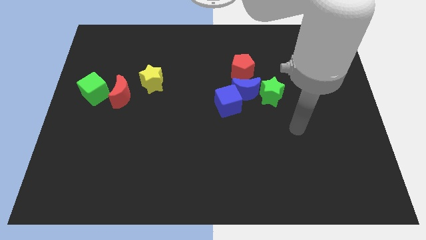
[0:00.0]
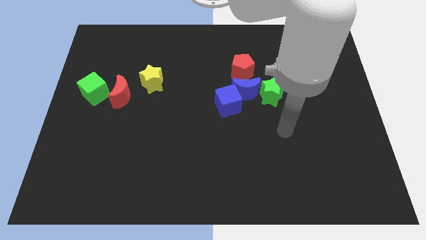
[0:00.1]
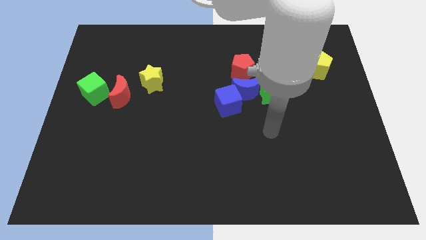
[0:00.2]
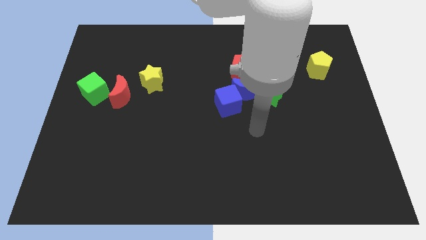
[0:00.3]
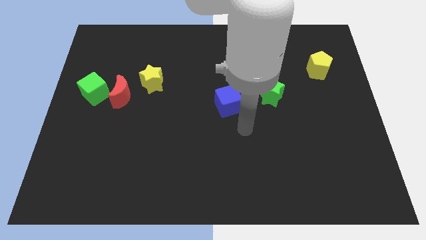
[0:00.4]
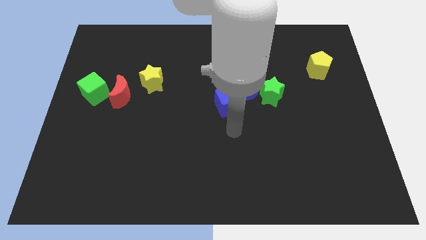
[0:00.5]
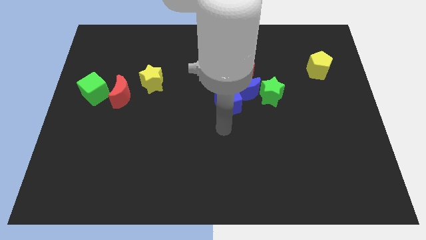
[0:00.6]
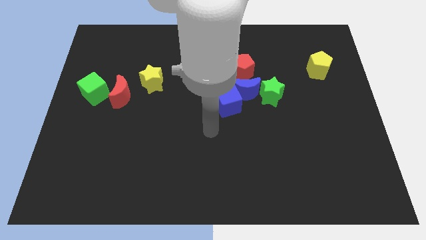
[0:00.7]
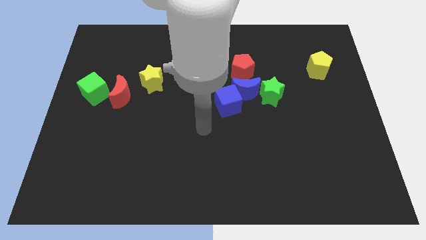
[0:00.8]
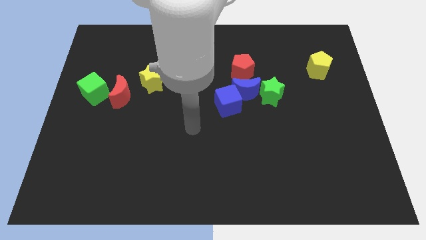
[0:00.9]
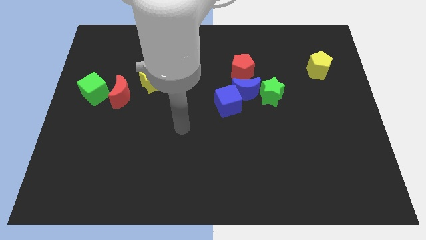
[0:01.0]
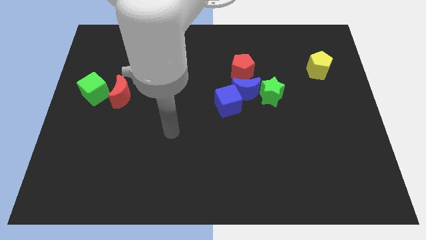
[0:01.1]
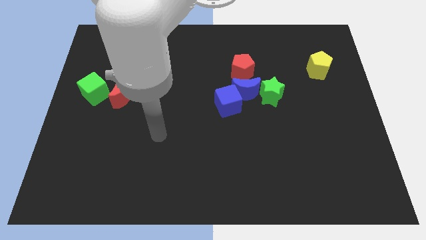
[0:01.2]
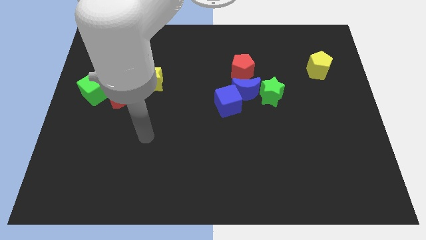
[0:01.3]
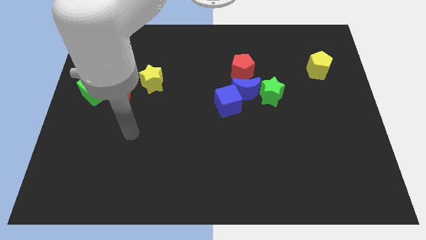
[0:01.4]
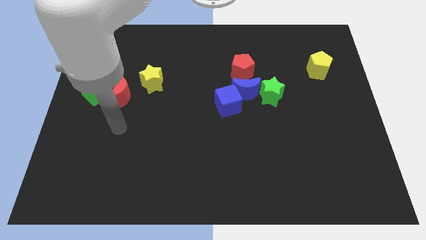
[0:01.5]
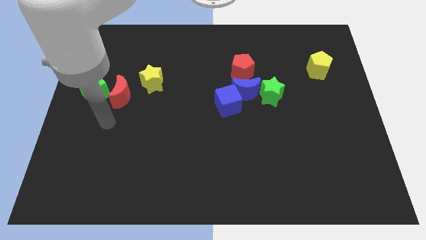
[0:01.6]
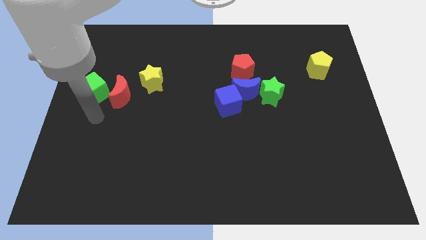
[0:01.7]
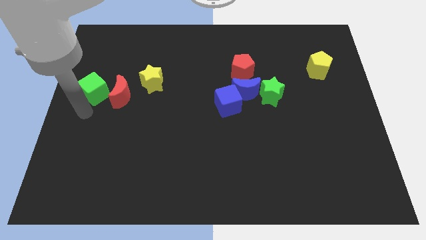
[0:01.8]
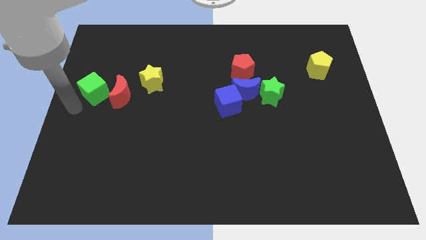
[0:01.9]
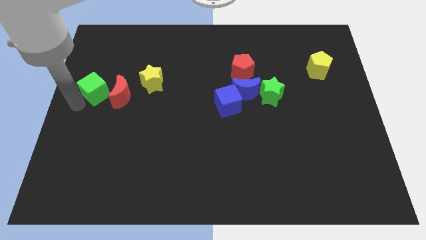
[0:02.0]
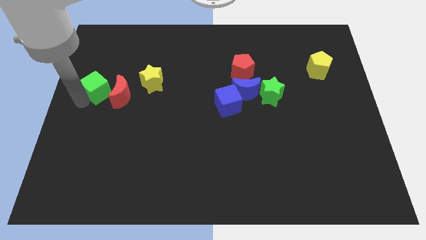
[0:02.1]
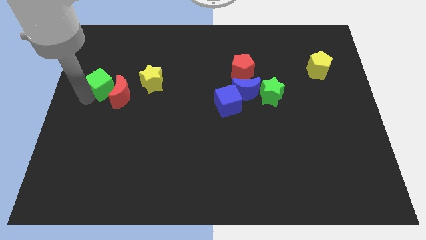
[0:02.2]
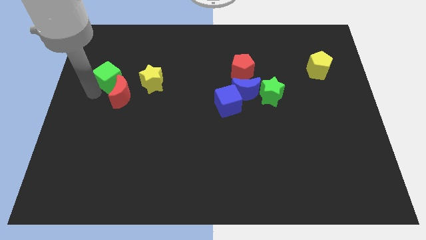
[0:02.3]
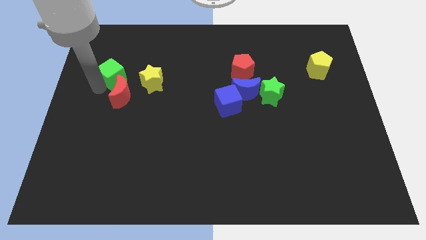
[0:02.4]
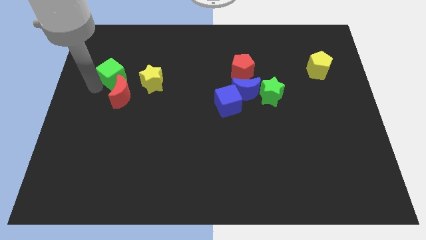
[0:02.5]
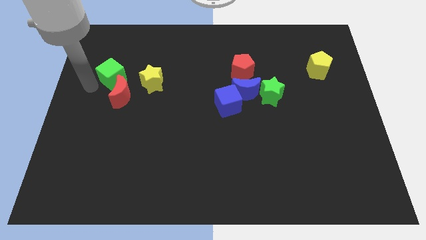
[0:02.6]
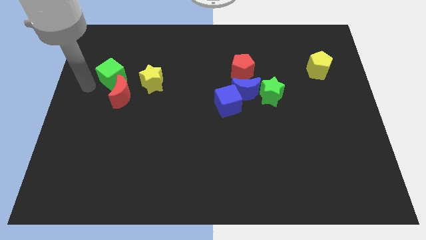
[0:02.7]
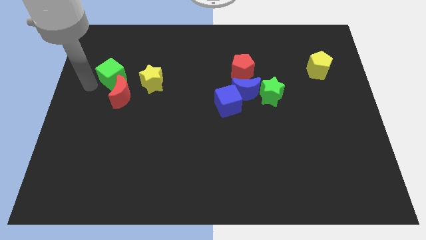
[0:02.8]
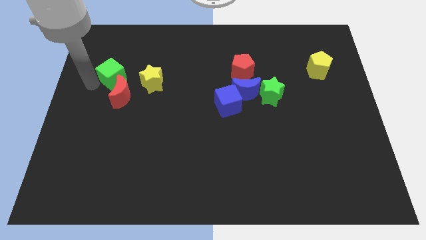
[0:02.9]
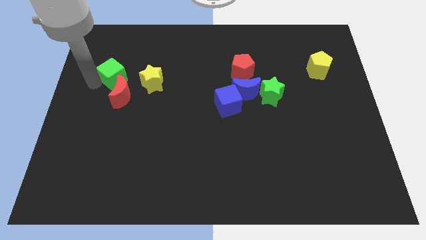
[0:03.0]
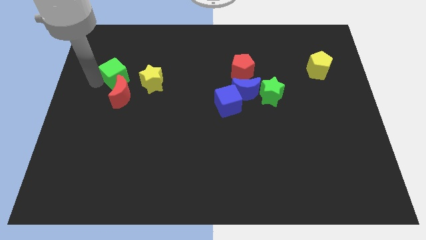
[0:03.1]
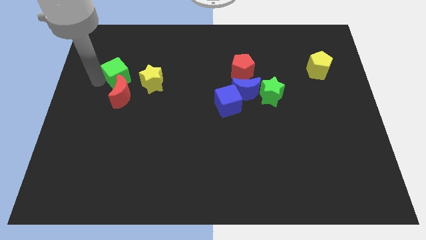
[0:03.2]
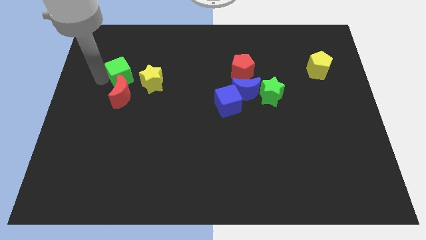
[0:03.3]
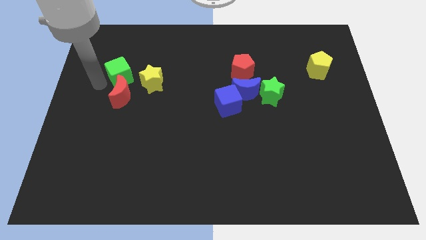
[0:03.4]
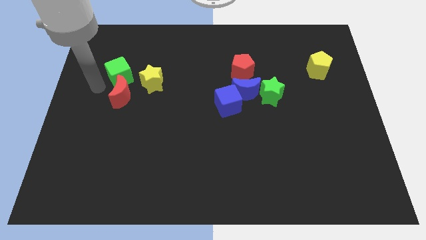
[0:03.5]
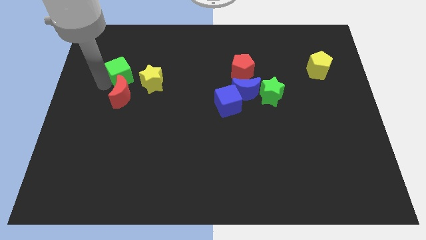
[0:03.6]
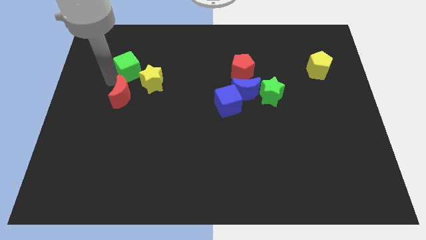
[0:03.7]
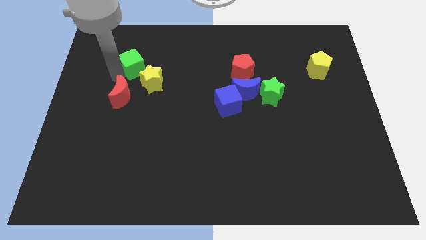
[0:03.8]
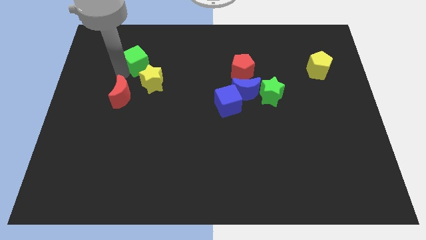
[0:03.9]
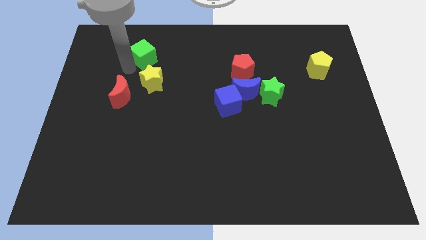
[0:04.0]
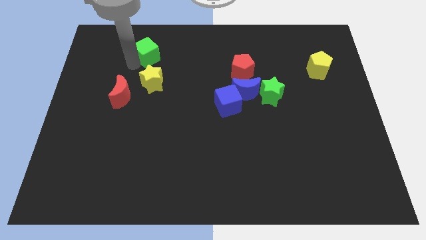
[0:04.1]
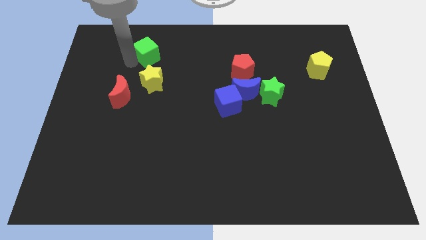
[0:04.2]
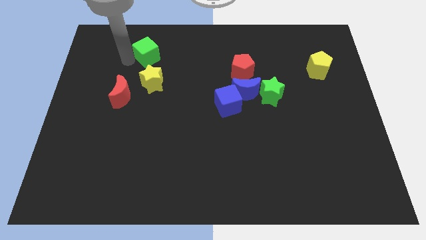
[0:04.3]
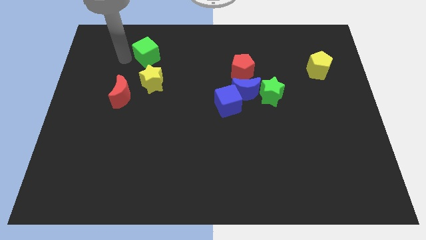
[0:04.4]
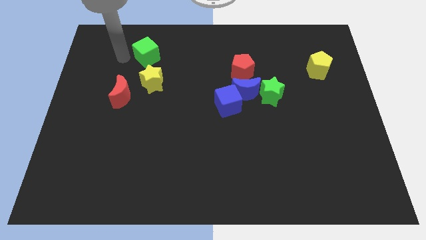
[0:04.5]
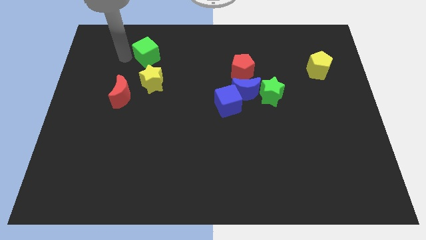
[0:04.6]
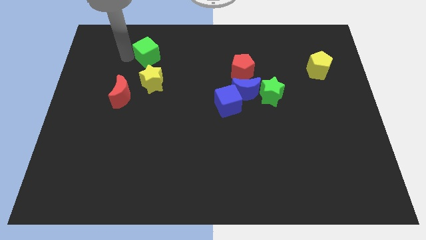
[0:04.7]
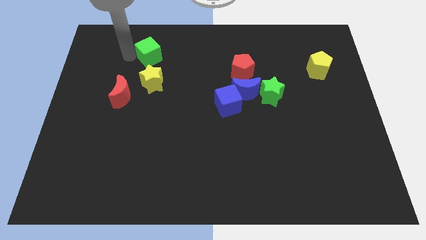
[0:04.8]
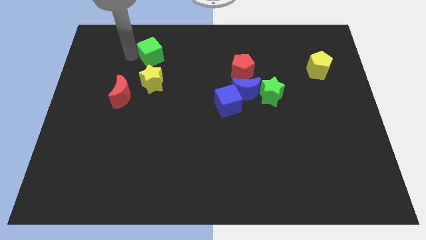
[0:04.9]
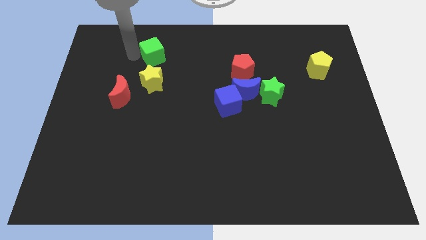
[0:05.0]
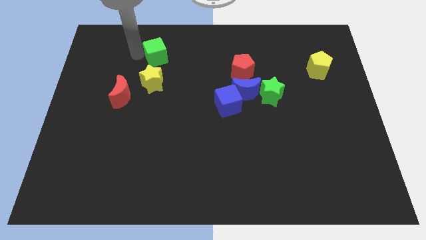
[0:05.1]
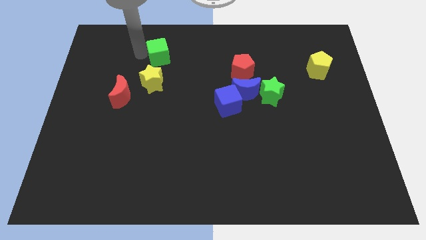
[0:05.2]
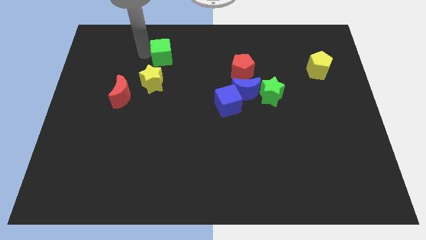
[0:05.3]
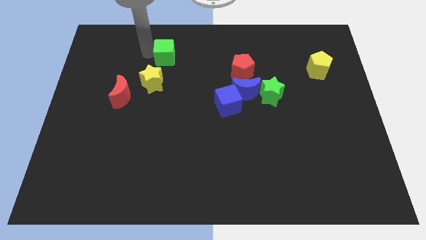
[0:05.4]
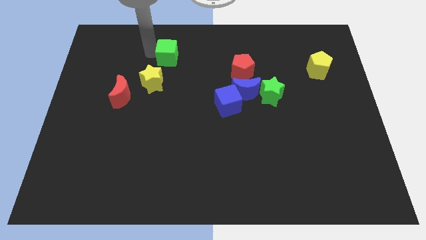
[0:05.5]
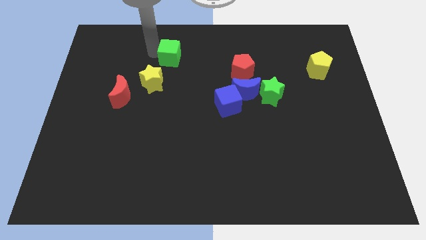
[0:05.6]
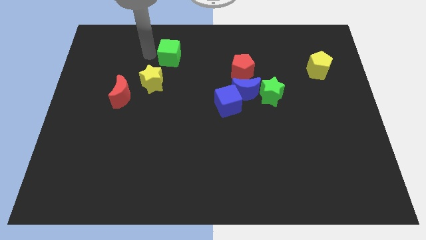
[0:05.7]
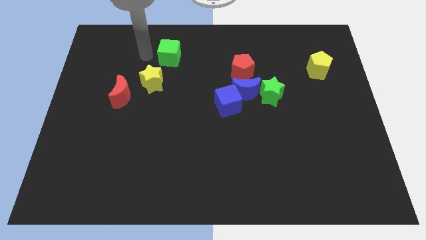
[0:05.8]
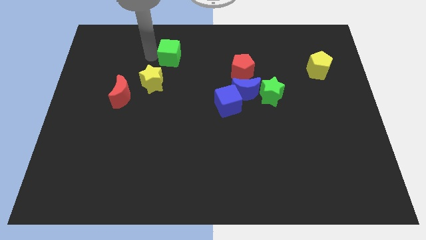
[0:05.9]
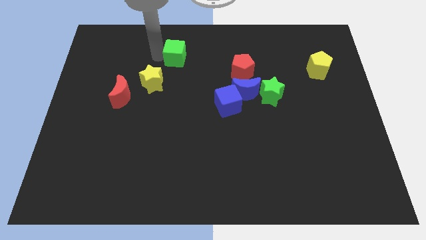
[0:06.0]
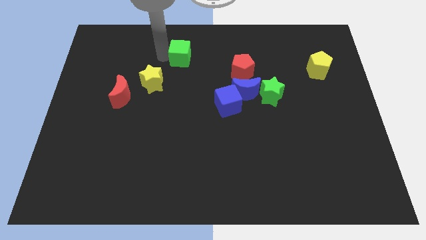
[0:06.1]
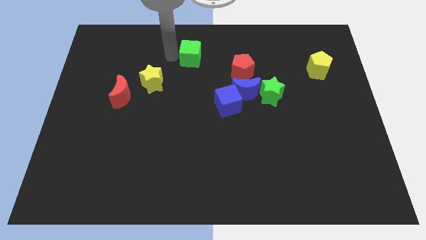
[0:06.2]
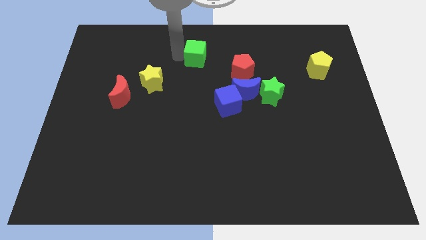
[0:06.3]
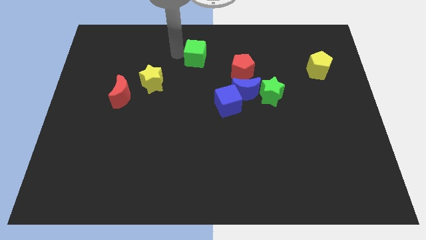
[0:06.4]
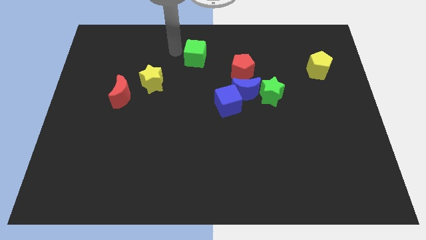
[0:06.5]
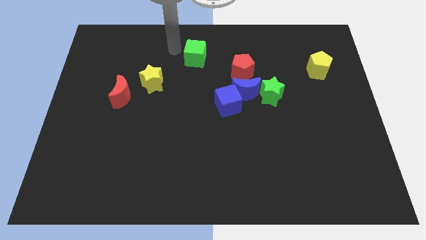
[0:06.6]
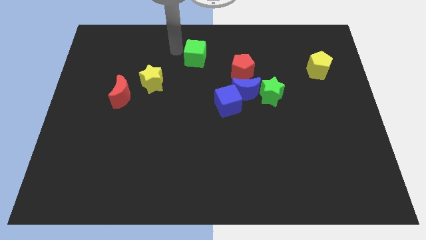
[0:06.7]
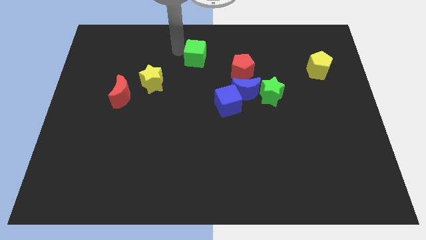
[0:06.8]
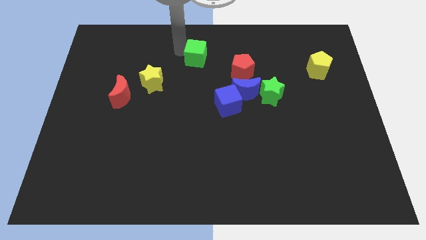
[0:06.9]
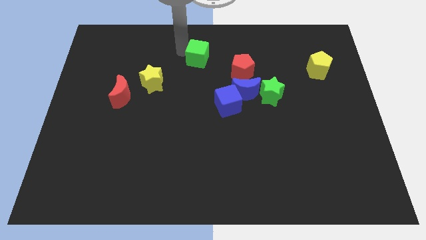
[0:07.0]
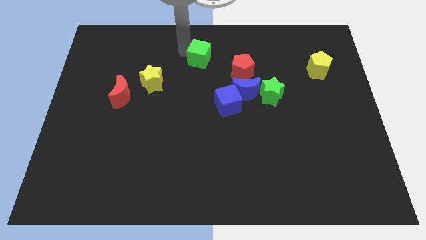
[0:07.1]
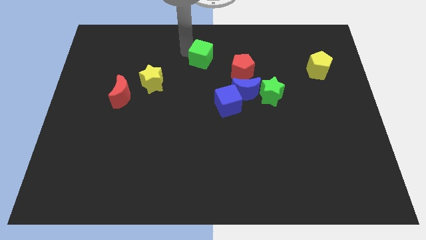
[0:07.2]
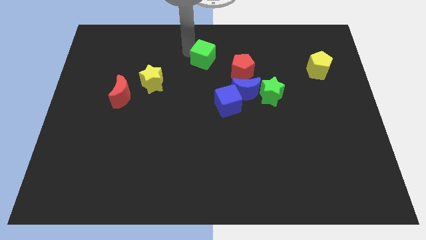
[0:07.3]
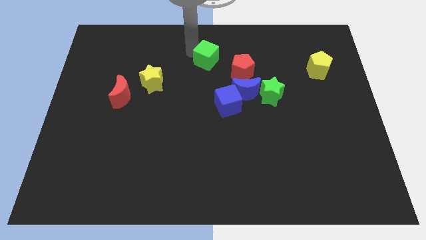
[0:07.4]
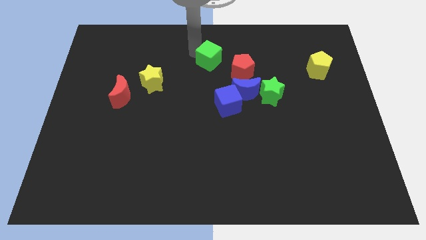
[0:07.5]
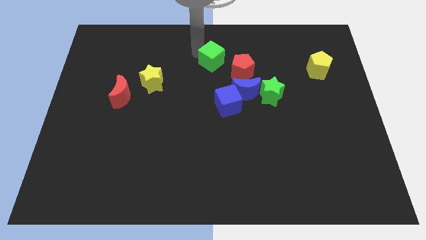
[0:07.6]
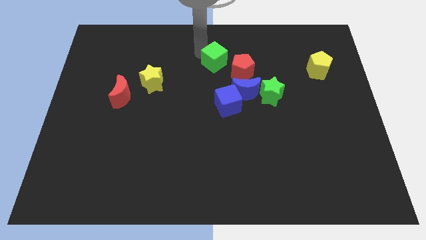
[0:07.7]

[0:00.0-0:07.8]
put the green cube above the blue cube

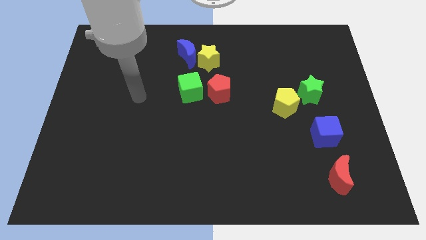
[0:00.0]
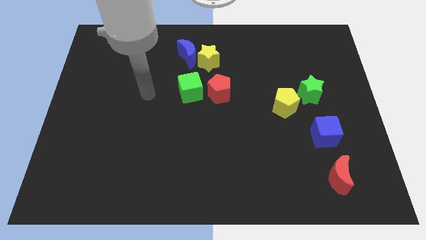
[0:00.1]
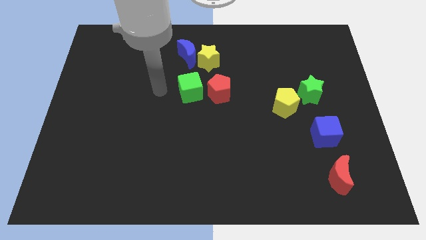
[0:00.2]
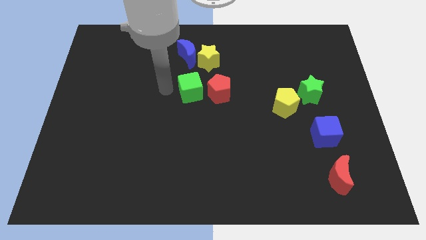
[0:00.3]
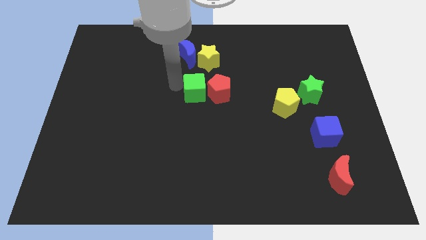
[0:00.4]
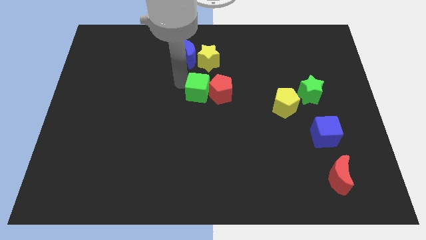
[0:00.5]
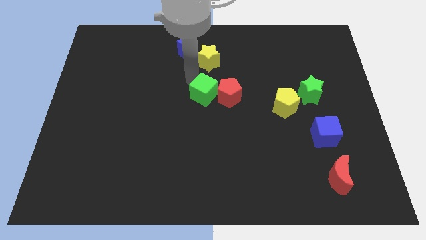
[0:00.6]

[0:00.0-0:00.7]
push the red pentagon to the left of the yellow pentagon
